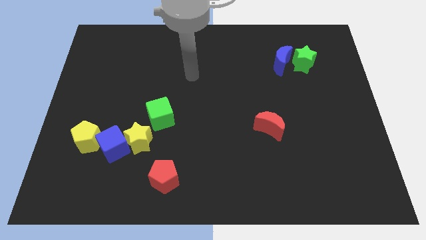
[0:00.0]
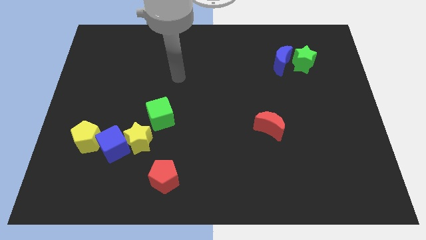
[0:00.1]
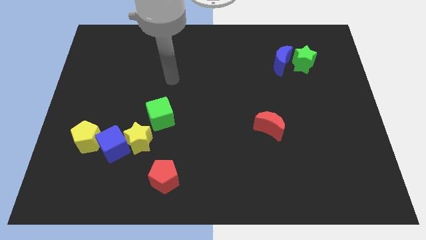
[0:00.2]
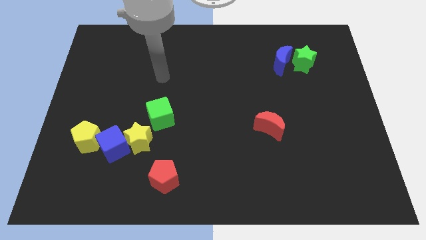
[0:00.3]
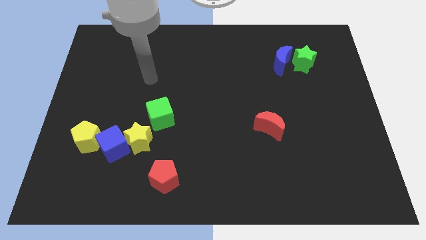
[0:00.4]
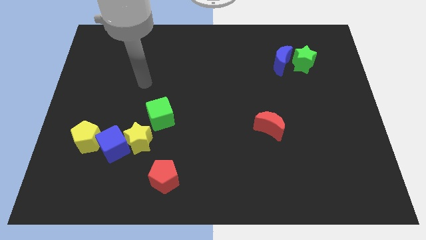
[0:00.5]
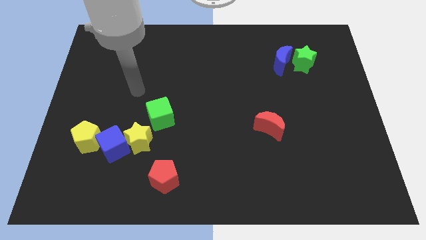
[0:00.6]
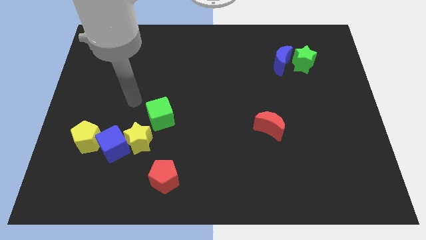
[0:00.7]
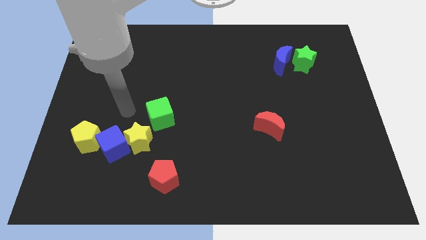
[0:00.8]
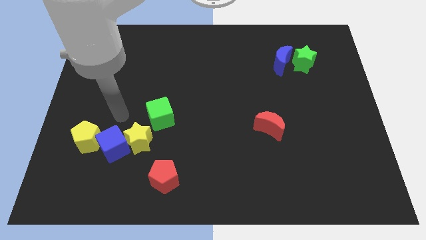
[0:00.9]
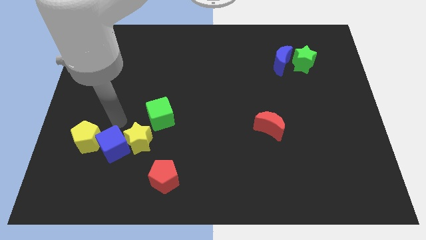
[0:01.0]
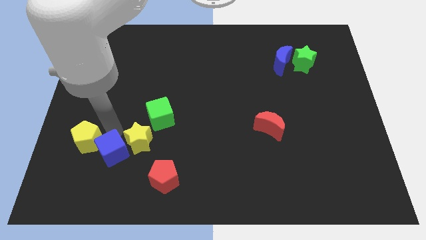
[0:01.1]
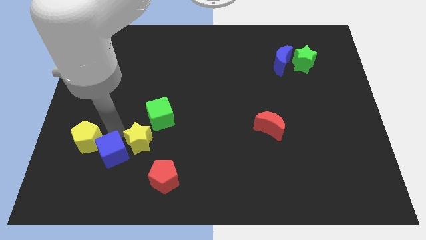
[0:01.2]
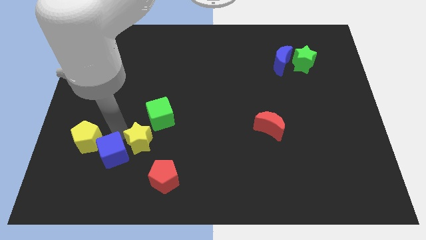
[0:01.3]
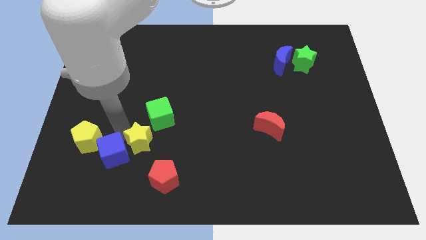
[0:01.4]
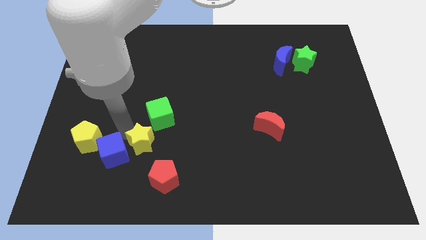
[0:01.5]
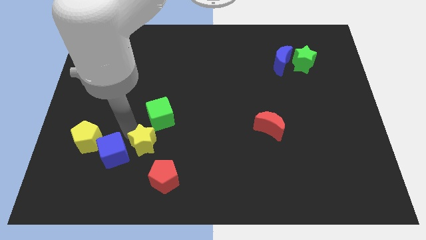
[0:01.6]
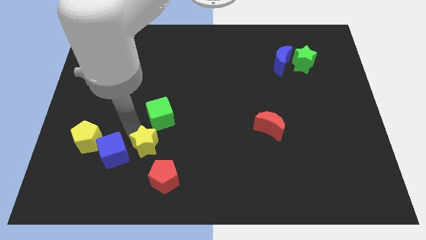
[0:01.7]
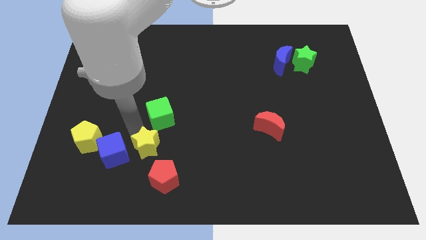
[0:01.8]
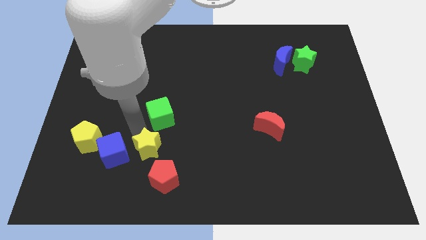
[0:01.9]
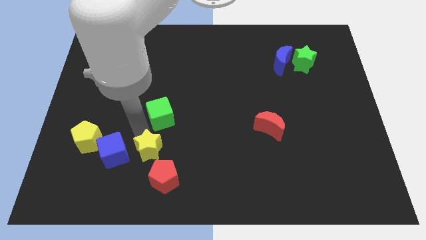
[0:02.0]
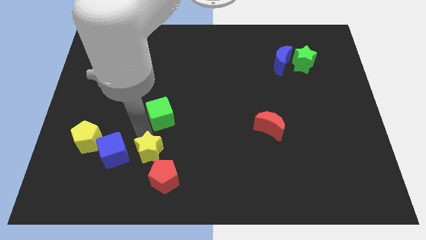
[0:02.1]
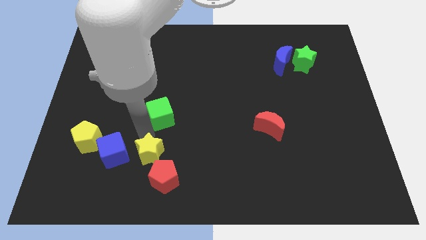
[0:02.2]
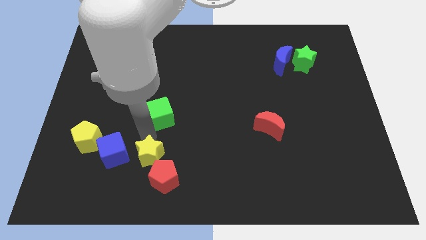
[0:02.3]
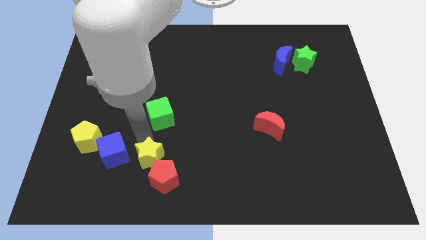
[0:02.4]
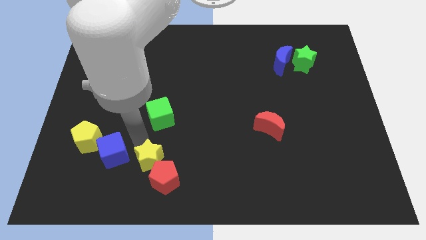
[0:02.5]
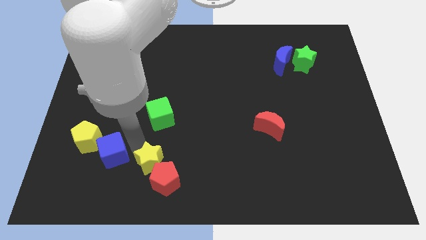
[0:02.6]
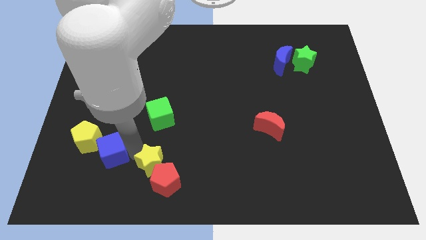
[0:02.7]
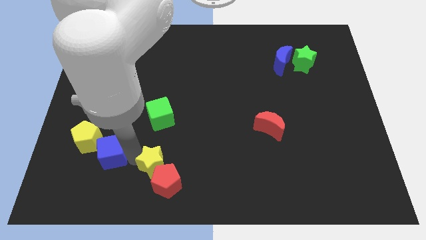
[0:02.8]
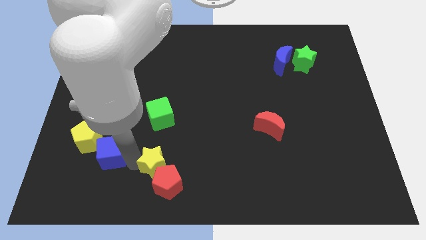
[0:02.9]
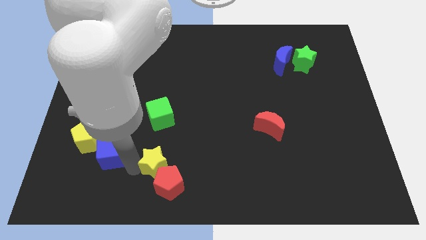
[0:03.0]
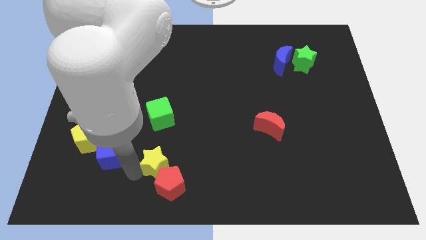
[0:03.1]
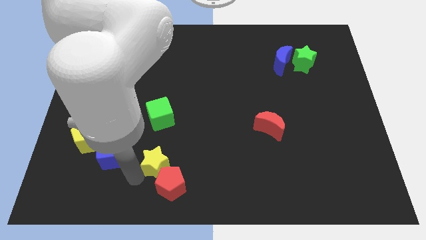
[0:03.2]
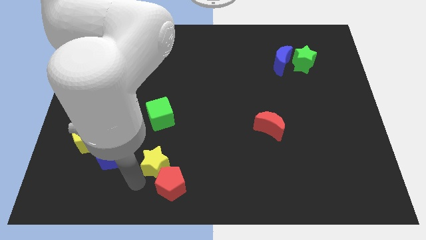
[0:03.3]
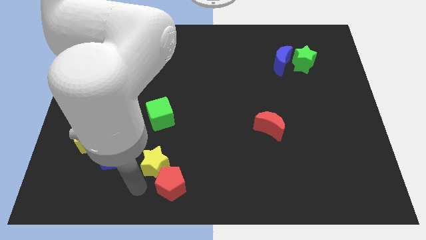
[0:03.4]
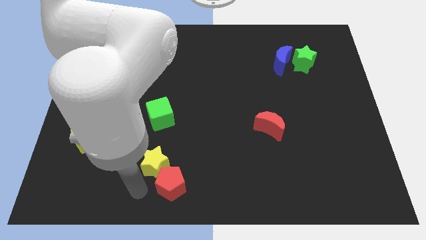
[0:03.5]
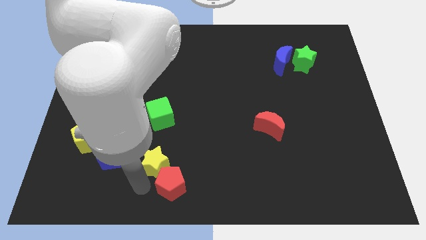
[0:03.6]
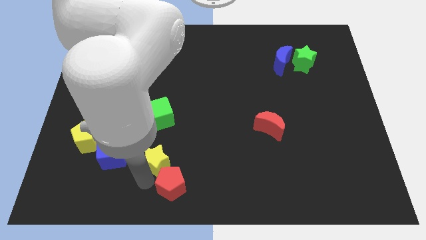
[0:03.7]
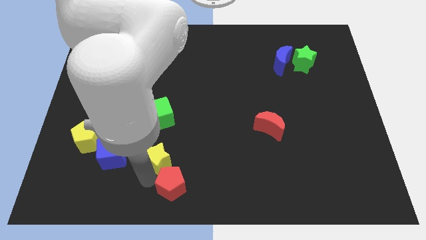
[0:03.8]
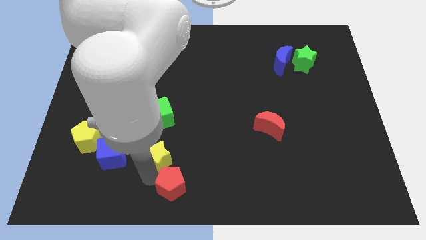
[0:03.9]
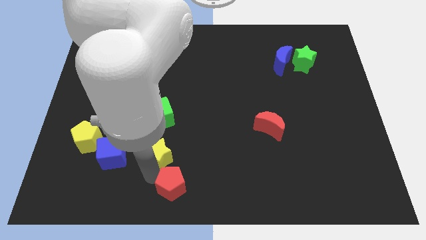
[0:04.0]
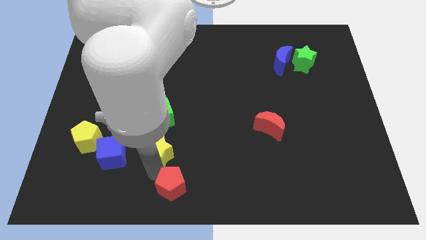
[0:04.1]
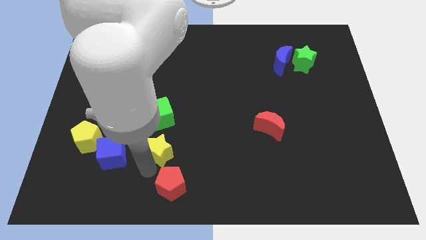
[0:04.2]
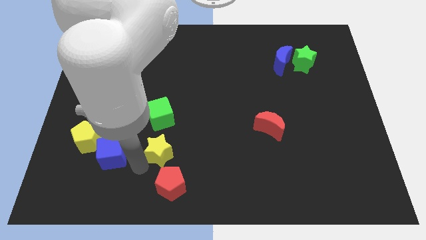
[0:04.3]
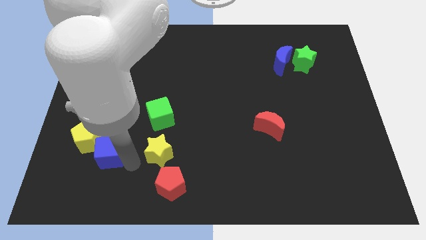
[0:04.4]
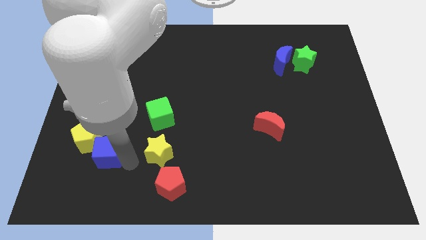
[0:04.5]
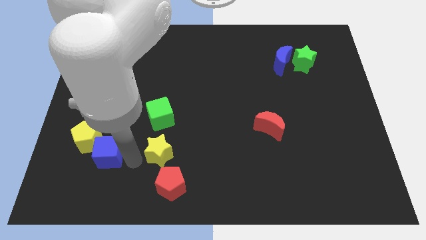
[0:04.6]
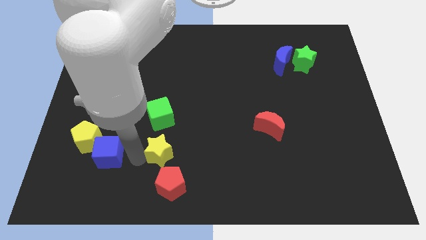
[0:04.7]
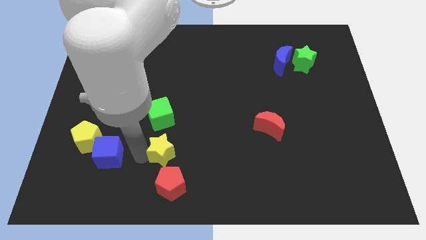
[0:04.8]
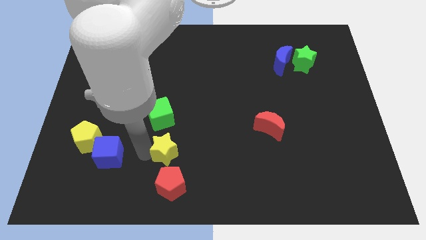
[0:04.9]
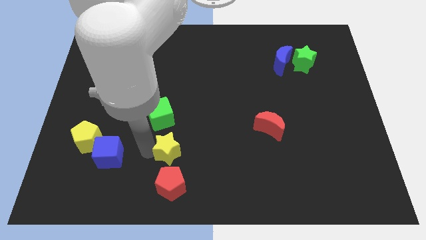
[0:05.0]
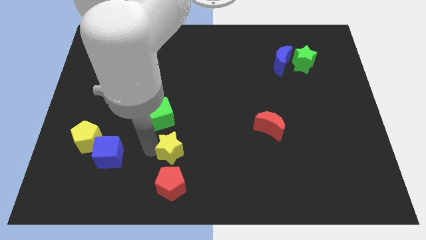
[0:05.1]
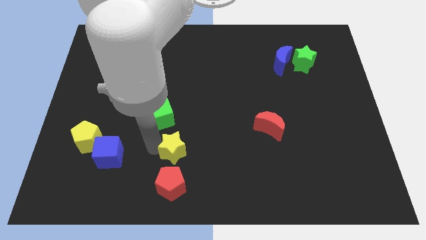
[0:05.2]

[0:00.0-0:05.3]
slightly move the yellow star to the right

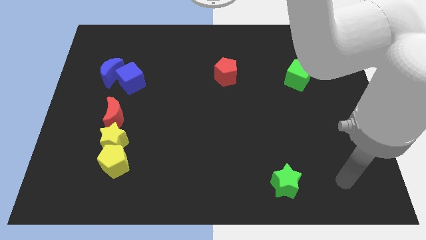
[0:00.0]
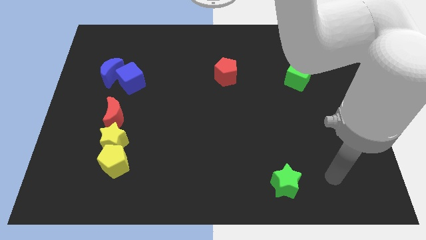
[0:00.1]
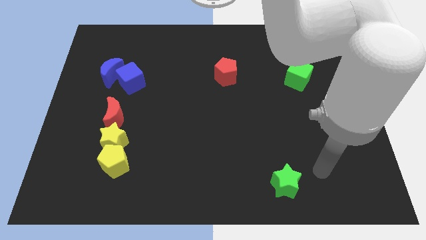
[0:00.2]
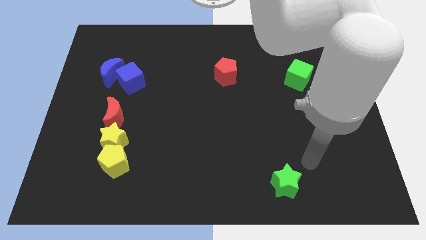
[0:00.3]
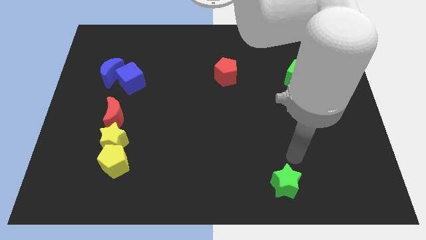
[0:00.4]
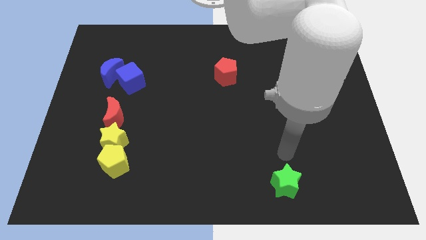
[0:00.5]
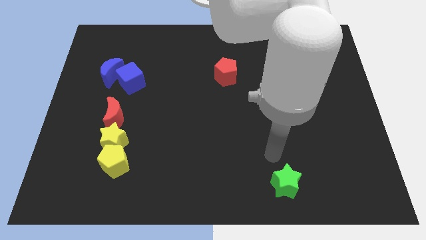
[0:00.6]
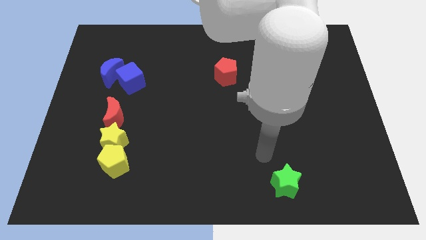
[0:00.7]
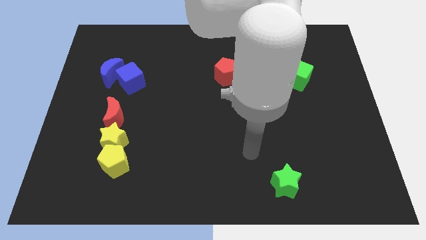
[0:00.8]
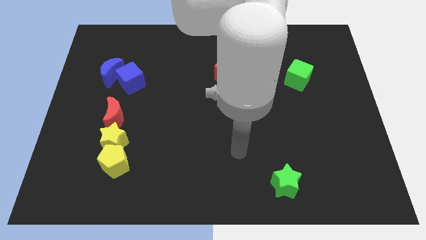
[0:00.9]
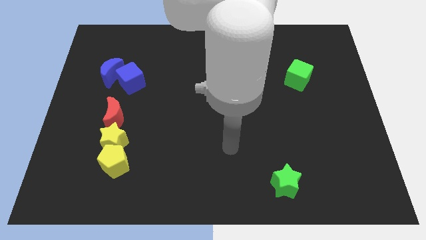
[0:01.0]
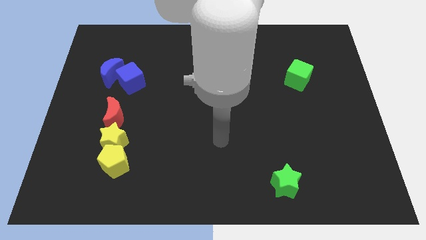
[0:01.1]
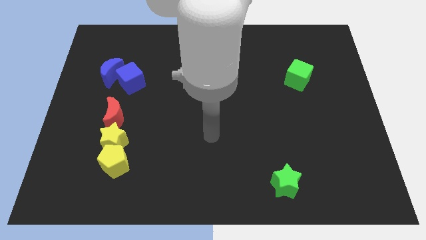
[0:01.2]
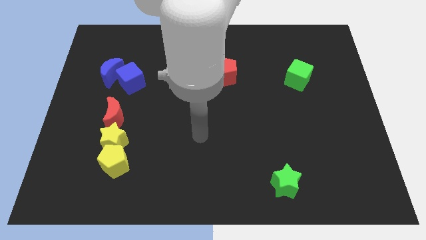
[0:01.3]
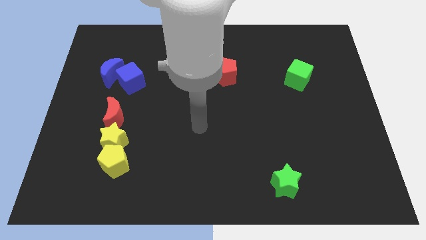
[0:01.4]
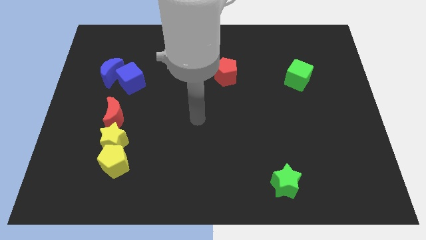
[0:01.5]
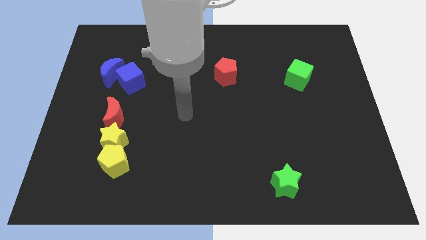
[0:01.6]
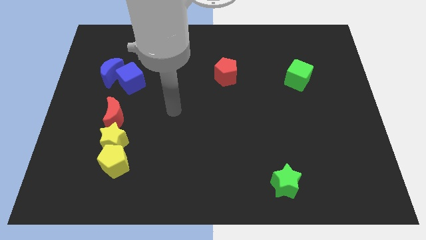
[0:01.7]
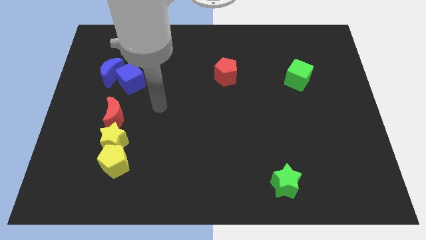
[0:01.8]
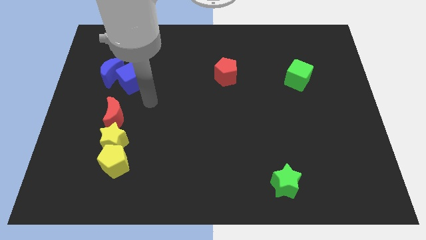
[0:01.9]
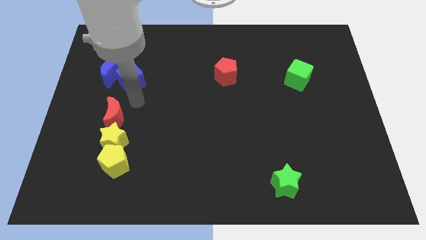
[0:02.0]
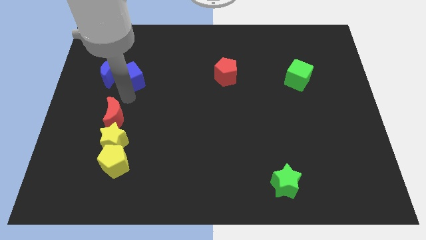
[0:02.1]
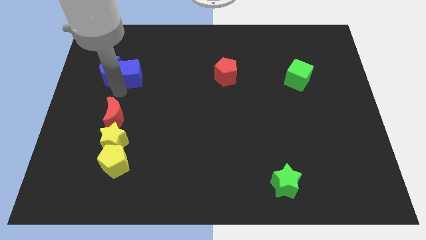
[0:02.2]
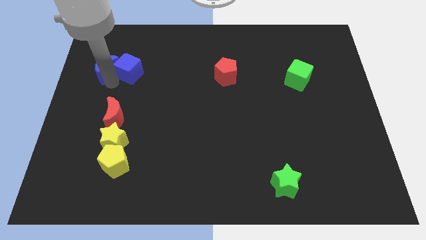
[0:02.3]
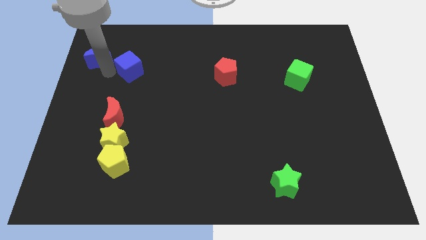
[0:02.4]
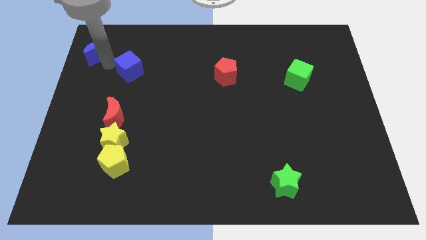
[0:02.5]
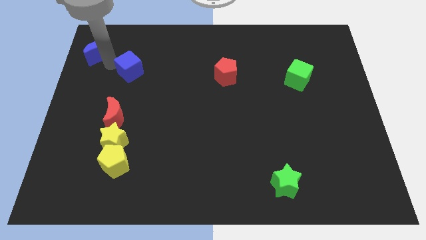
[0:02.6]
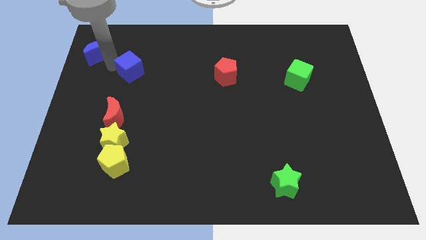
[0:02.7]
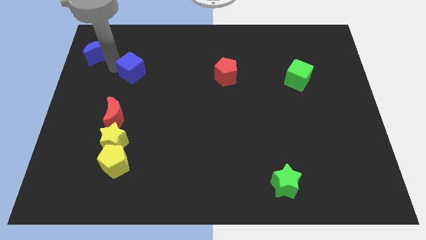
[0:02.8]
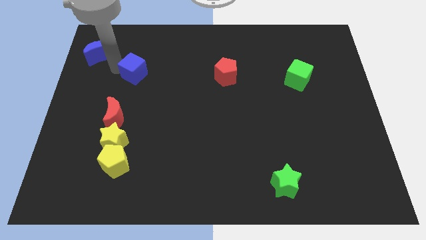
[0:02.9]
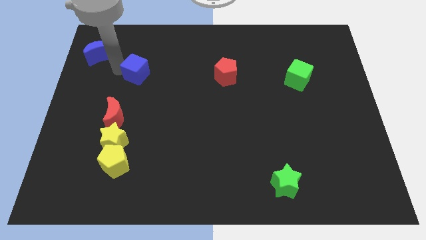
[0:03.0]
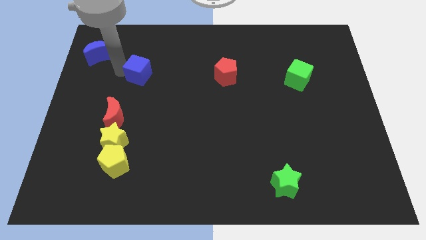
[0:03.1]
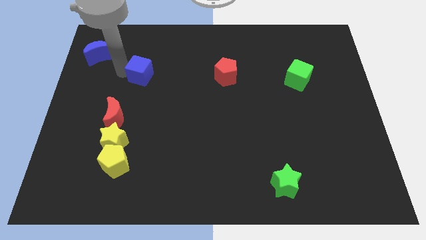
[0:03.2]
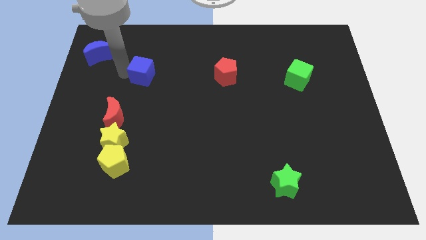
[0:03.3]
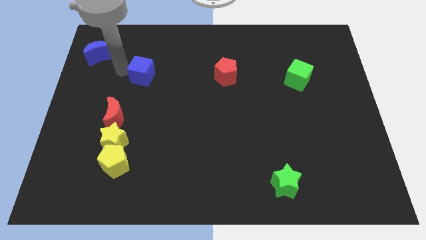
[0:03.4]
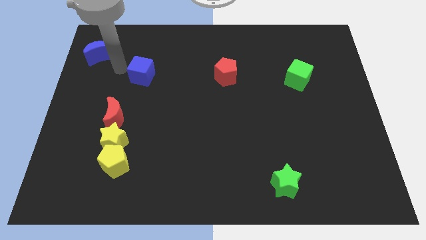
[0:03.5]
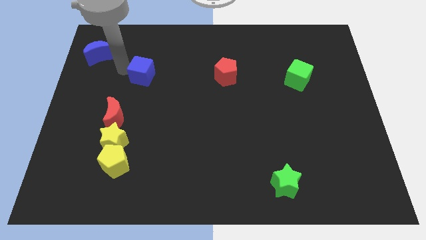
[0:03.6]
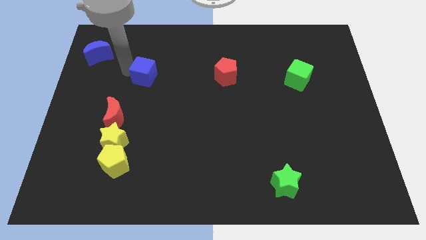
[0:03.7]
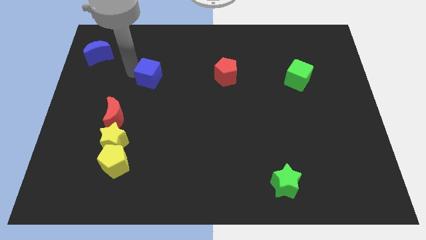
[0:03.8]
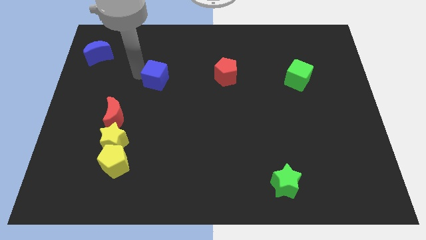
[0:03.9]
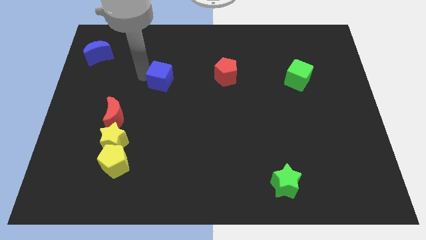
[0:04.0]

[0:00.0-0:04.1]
slightly slide the blue cube to the right
